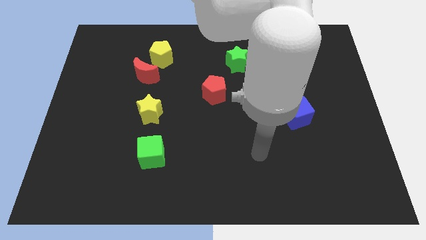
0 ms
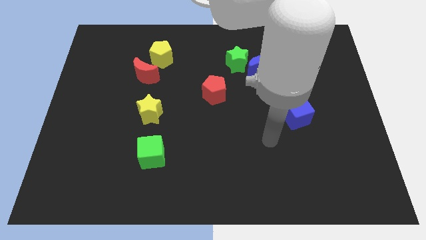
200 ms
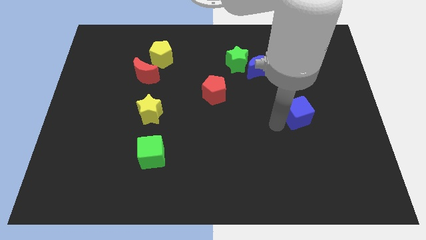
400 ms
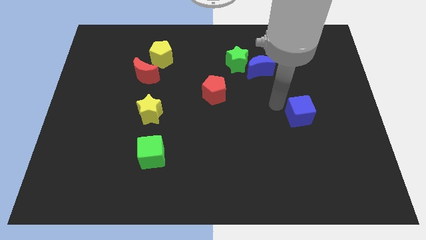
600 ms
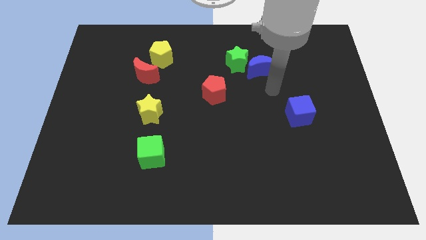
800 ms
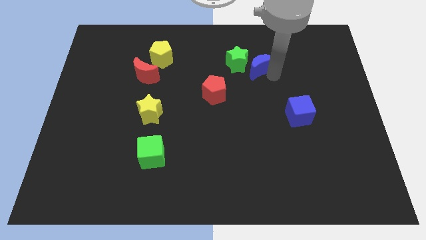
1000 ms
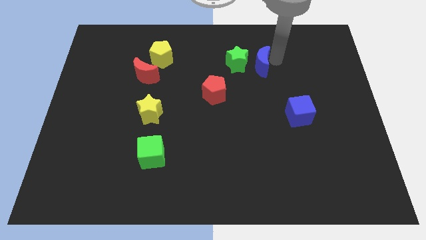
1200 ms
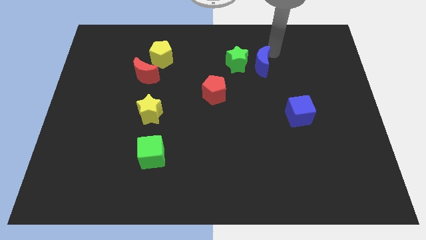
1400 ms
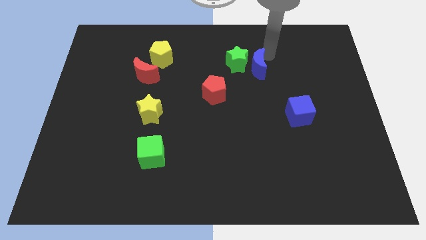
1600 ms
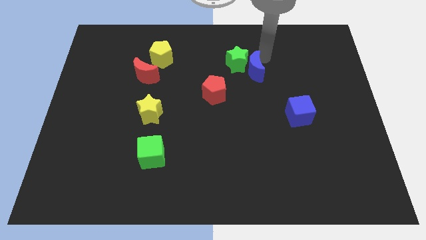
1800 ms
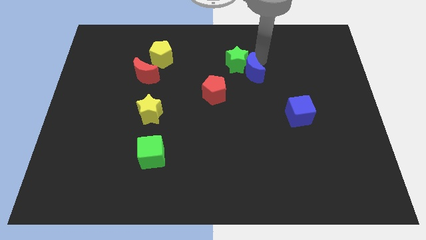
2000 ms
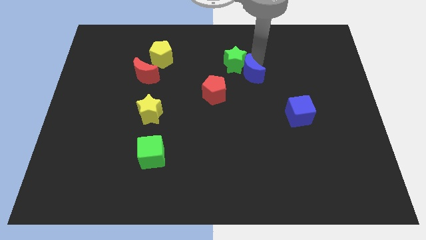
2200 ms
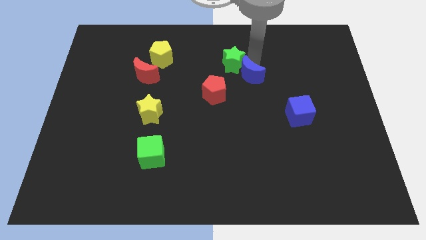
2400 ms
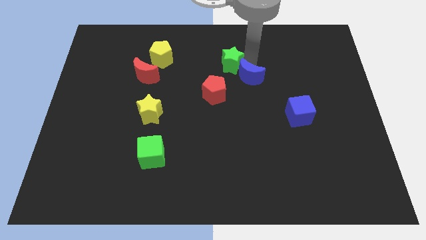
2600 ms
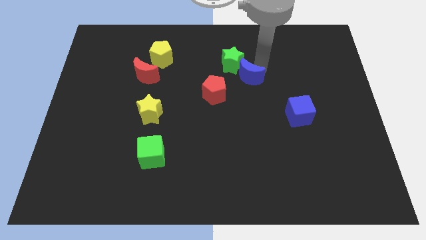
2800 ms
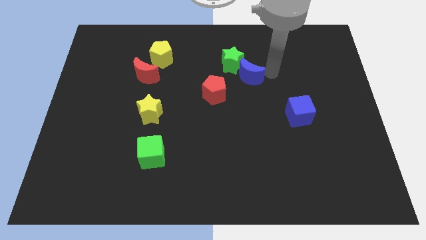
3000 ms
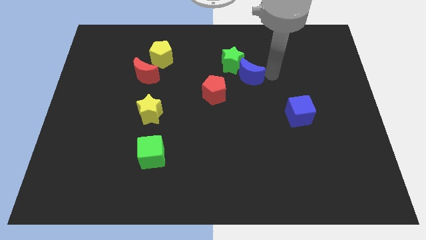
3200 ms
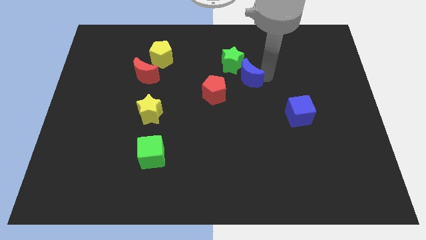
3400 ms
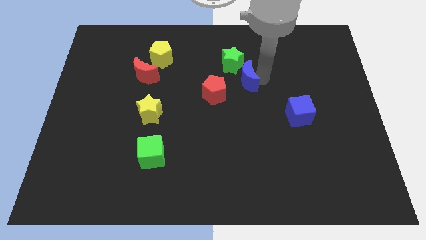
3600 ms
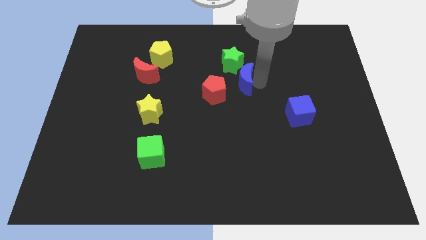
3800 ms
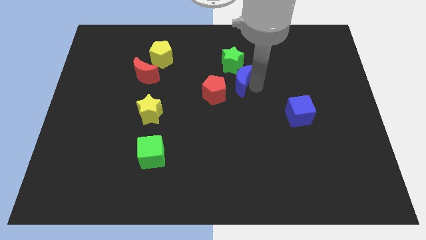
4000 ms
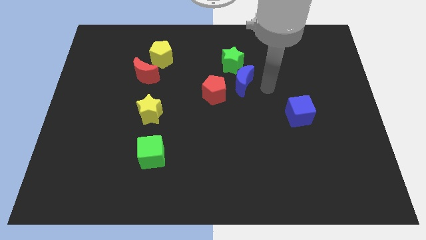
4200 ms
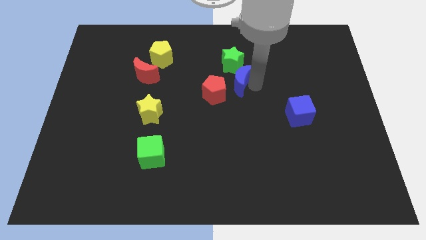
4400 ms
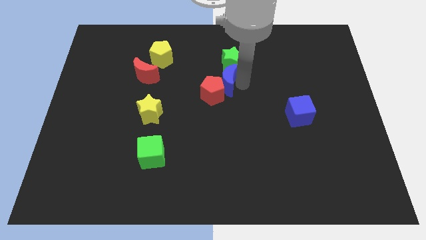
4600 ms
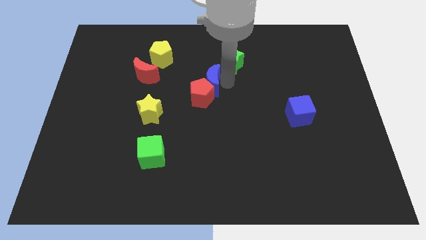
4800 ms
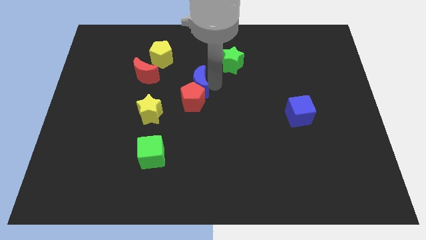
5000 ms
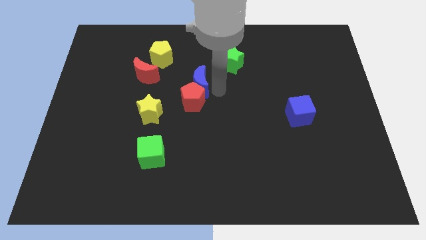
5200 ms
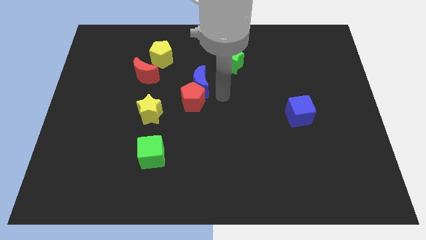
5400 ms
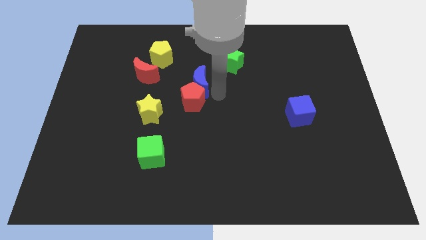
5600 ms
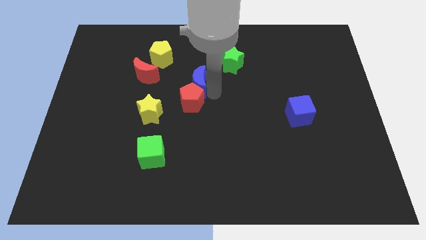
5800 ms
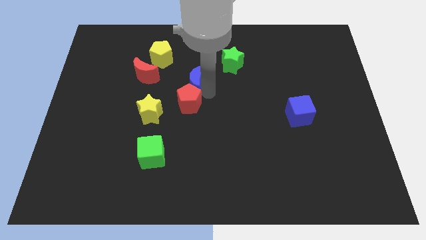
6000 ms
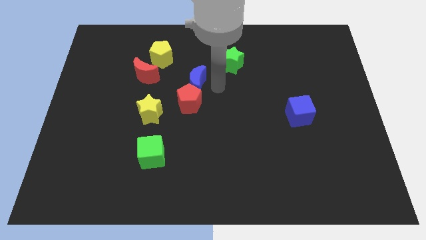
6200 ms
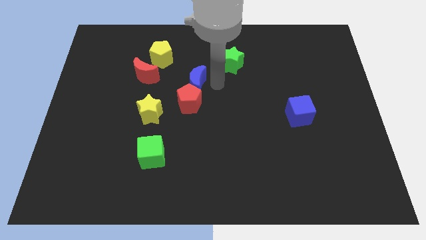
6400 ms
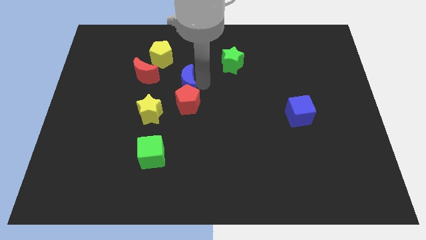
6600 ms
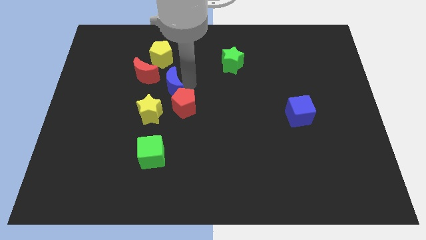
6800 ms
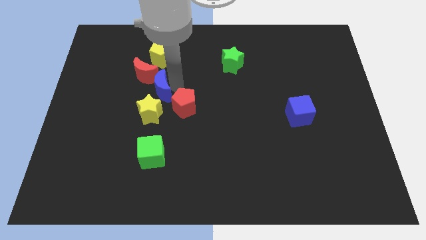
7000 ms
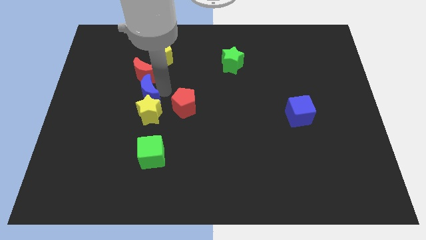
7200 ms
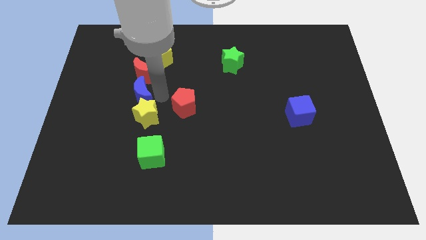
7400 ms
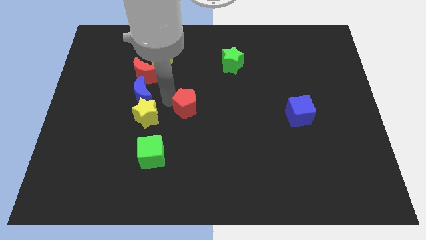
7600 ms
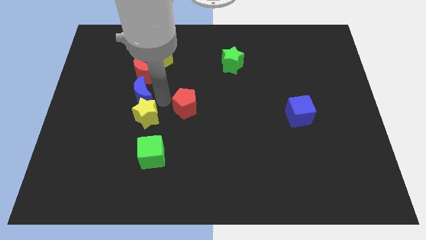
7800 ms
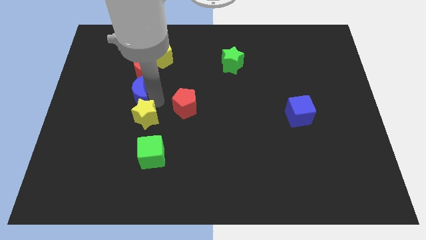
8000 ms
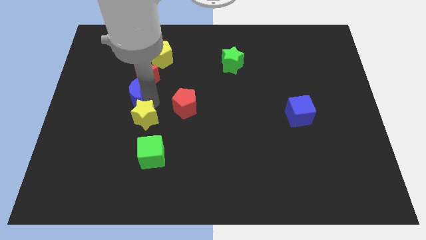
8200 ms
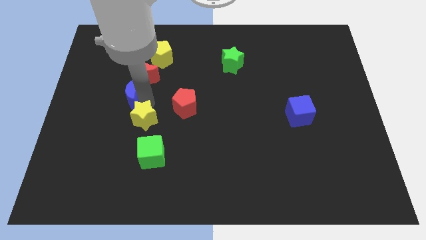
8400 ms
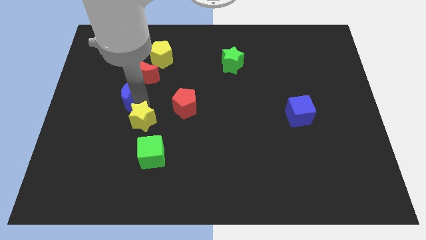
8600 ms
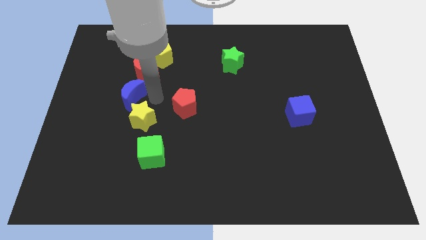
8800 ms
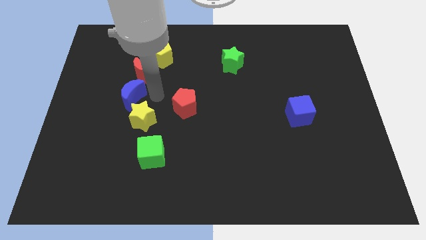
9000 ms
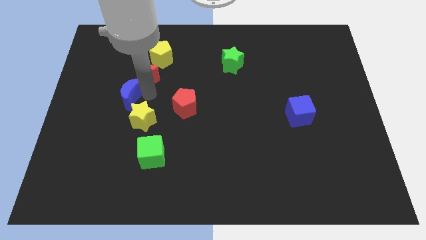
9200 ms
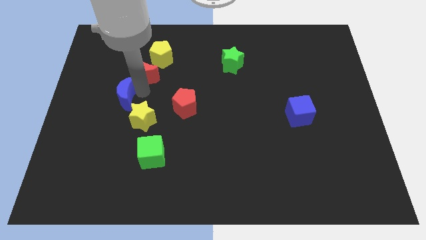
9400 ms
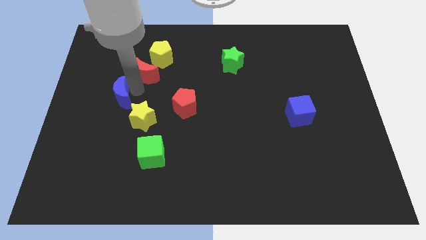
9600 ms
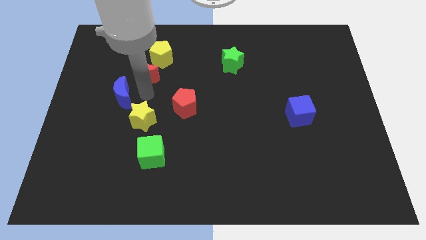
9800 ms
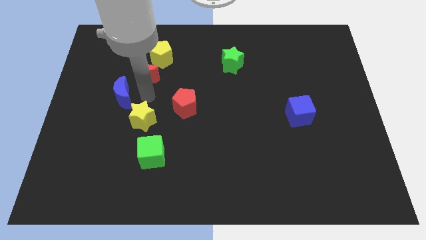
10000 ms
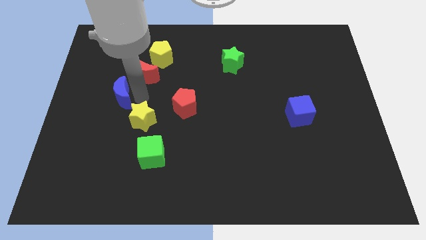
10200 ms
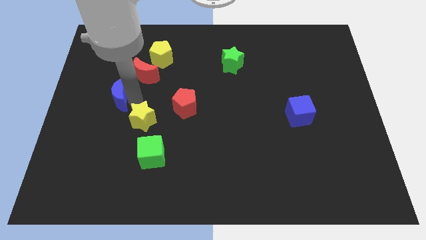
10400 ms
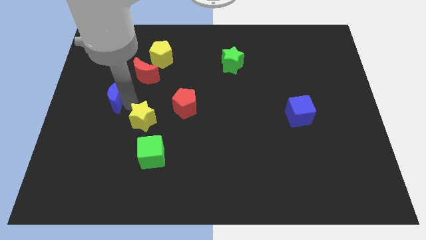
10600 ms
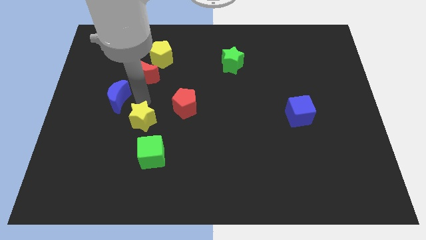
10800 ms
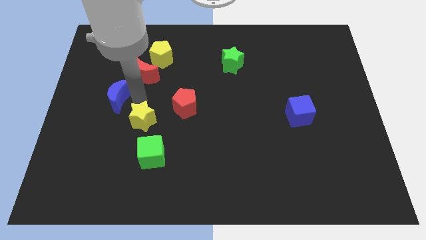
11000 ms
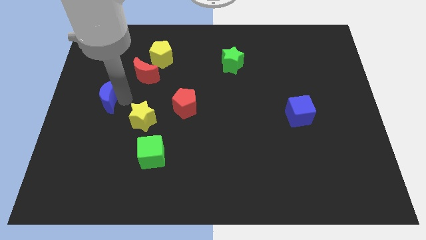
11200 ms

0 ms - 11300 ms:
push the blue moon to the left side of the board

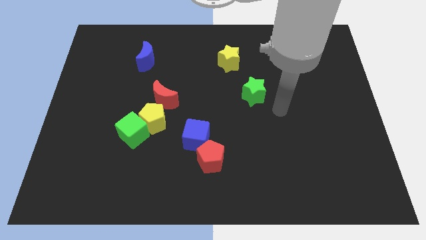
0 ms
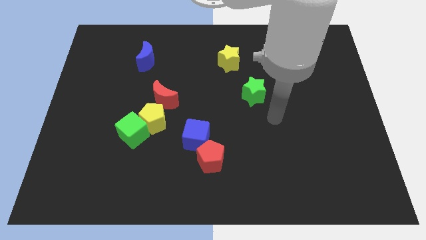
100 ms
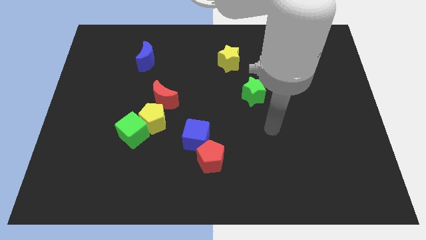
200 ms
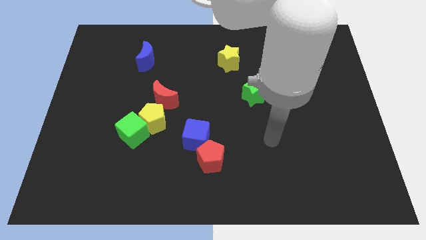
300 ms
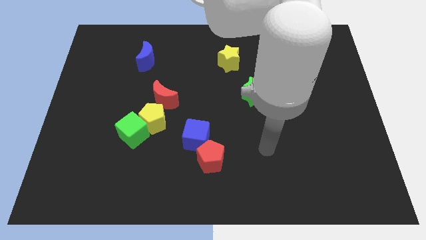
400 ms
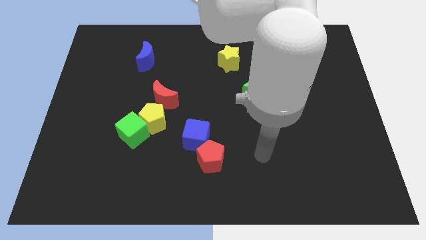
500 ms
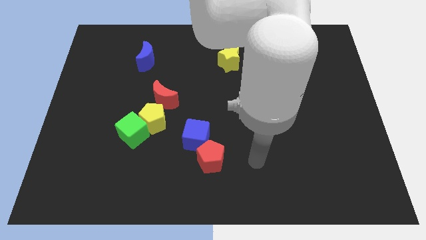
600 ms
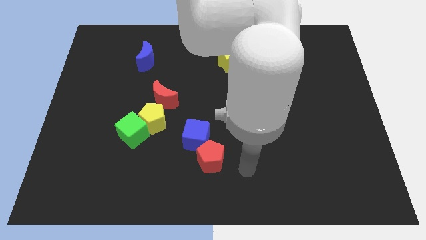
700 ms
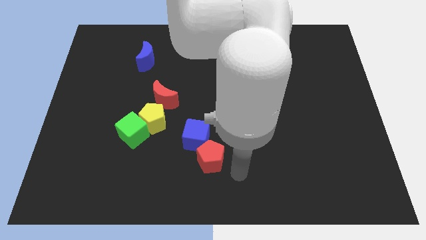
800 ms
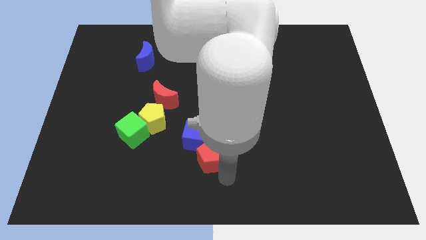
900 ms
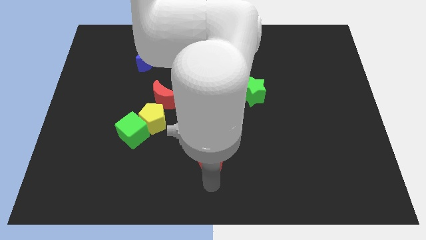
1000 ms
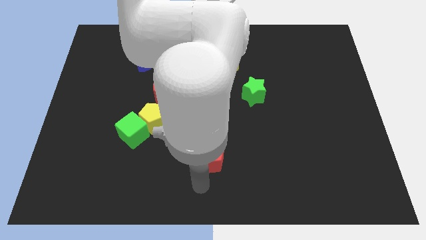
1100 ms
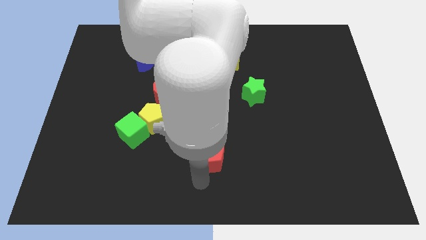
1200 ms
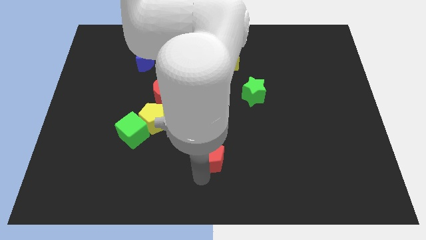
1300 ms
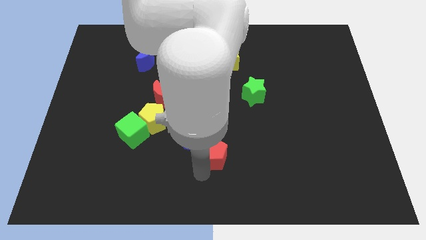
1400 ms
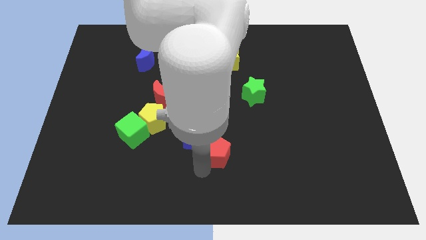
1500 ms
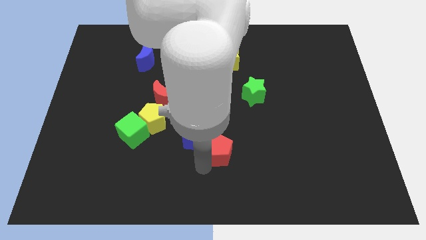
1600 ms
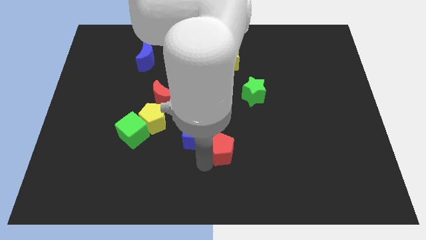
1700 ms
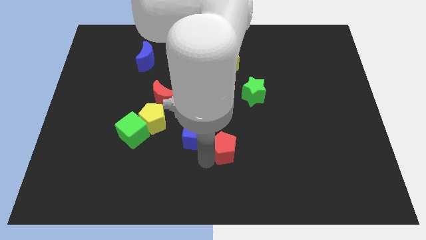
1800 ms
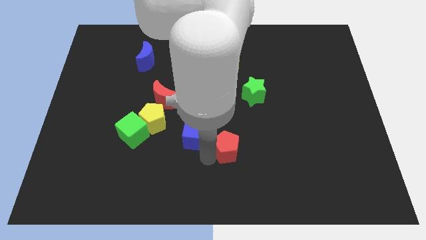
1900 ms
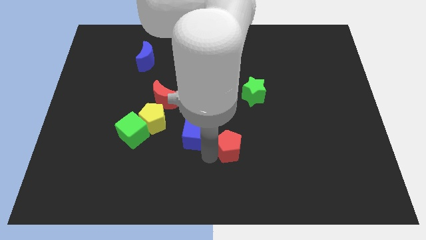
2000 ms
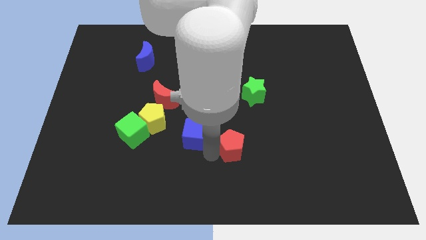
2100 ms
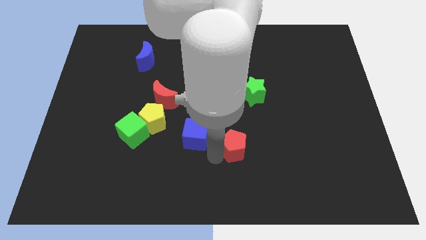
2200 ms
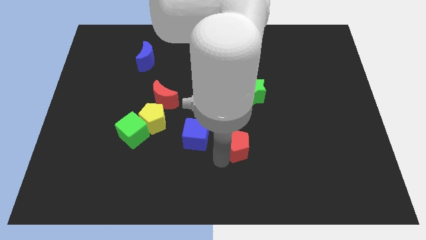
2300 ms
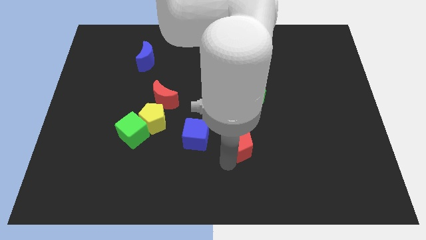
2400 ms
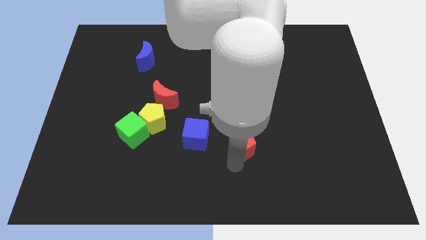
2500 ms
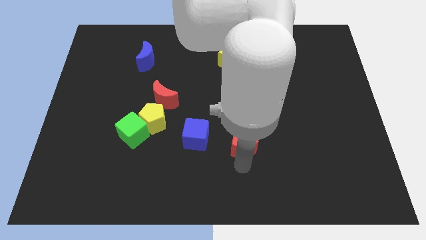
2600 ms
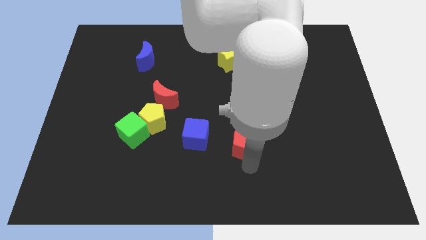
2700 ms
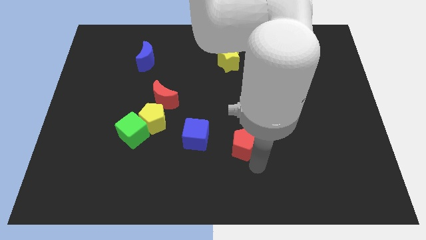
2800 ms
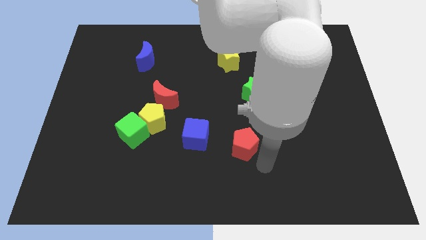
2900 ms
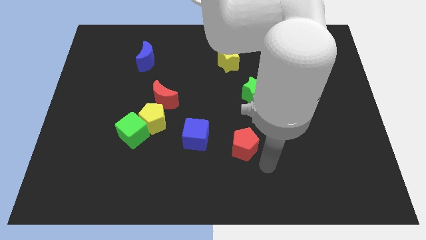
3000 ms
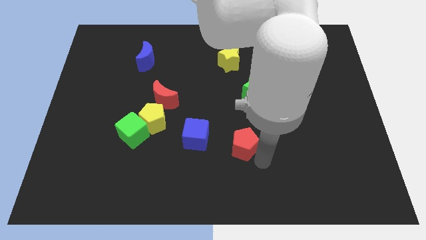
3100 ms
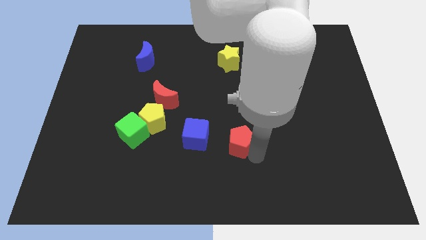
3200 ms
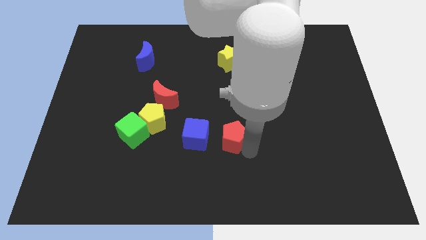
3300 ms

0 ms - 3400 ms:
push the red pentagon to the middle of the board
